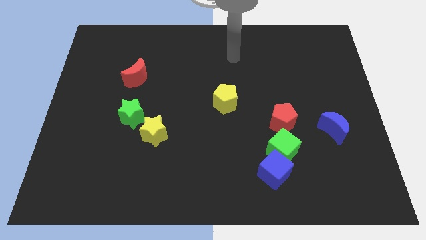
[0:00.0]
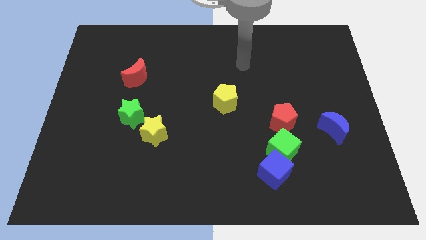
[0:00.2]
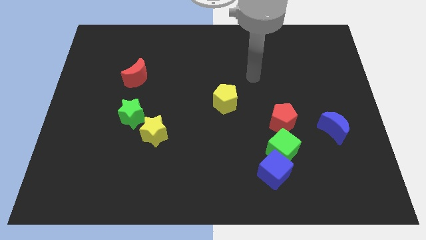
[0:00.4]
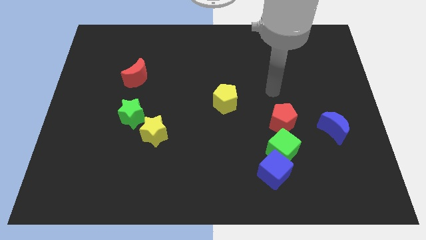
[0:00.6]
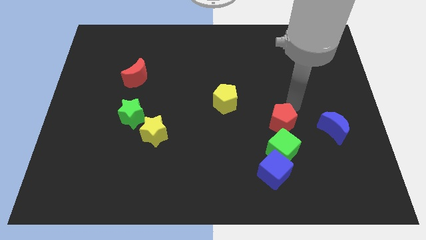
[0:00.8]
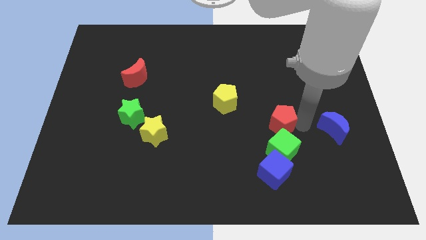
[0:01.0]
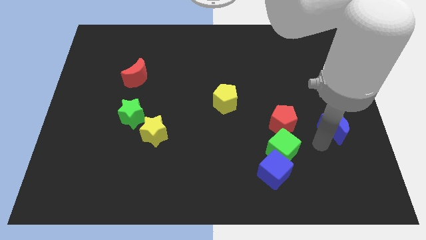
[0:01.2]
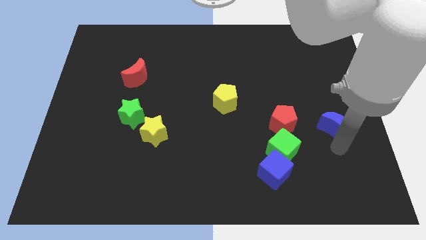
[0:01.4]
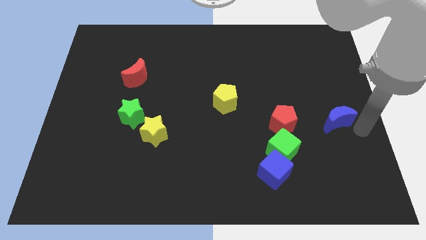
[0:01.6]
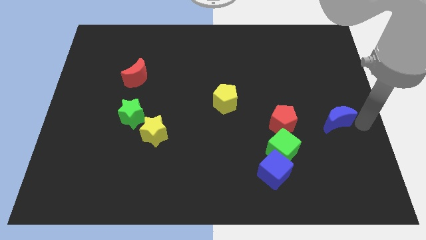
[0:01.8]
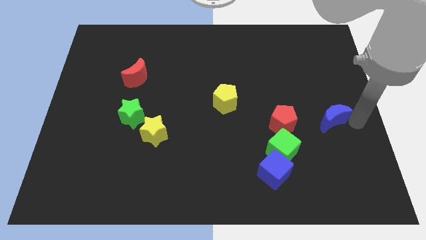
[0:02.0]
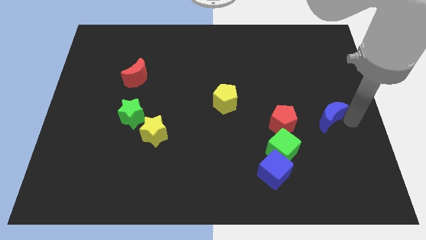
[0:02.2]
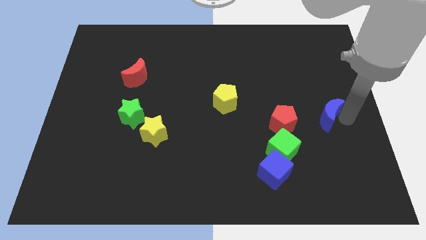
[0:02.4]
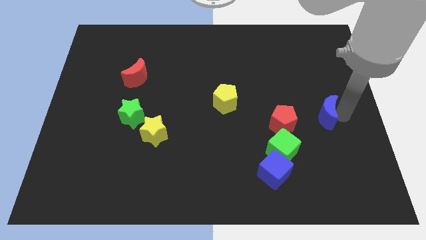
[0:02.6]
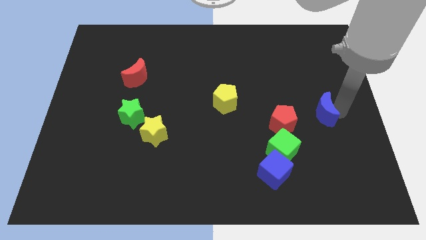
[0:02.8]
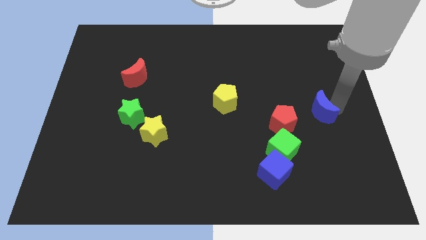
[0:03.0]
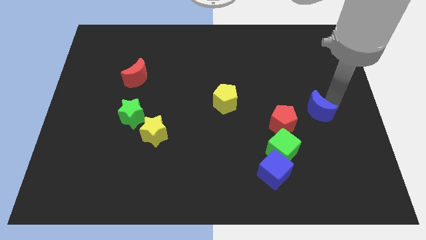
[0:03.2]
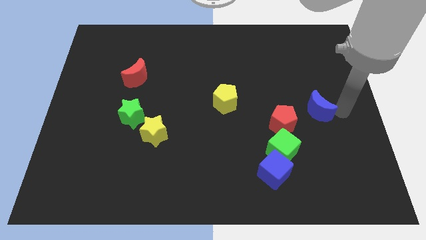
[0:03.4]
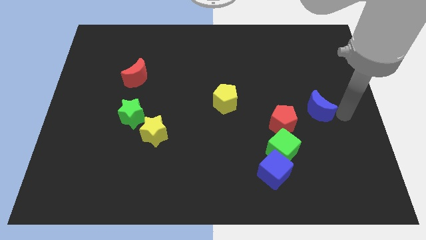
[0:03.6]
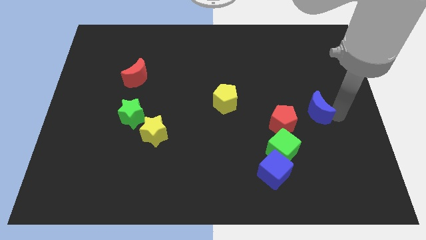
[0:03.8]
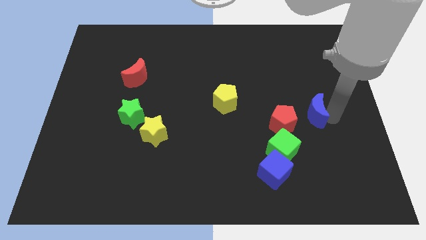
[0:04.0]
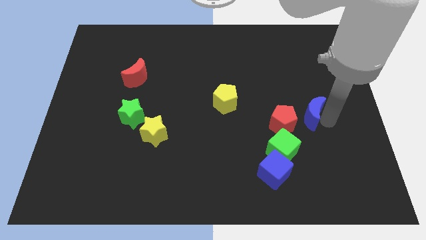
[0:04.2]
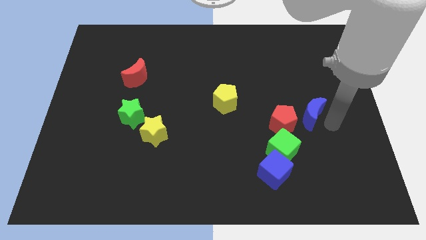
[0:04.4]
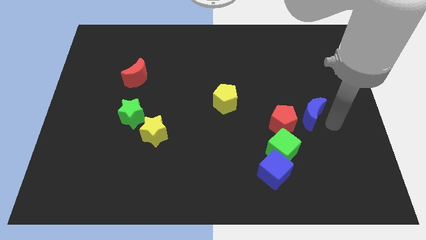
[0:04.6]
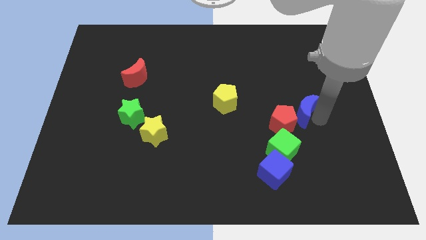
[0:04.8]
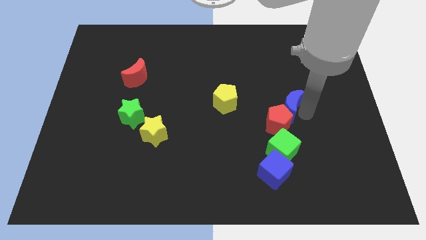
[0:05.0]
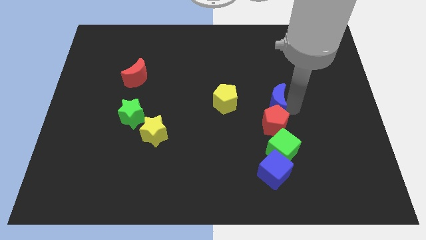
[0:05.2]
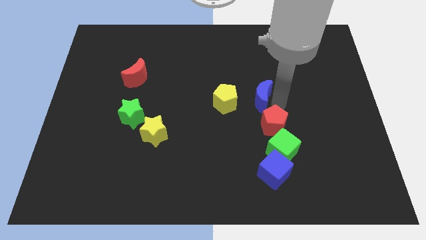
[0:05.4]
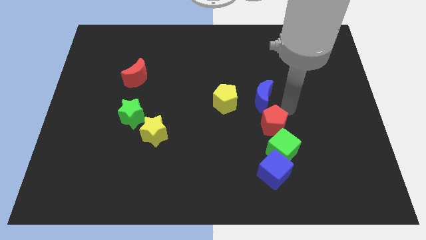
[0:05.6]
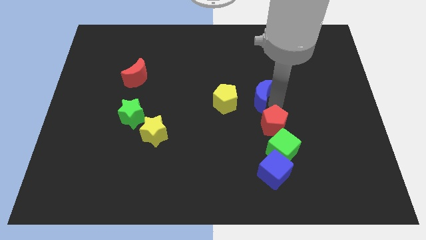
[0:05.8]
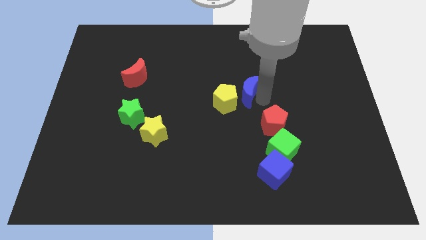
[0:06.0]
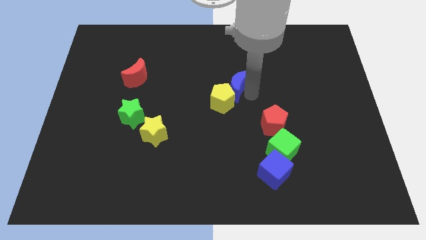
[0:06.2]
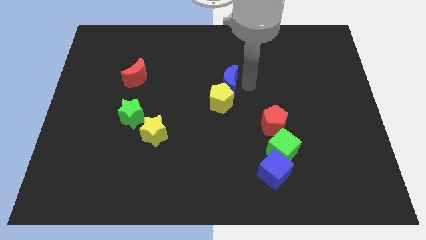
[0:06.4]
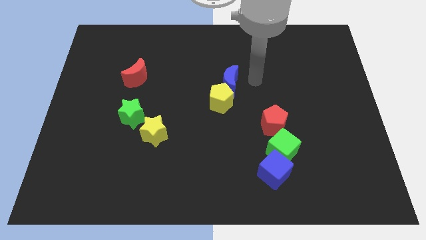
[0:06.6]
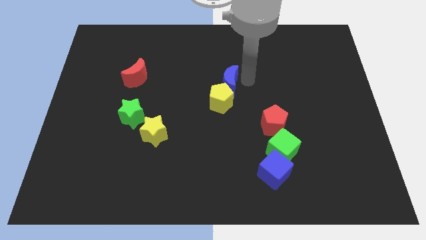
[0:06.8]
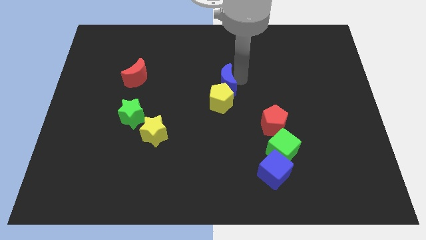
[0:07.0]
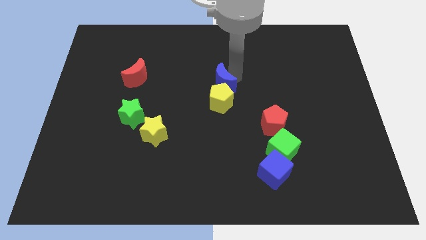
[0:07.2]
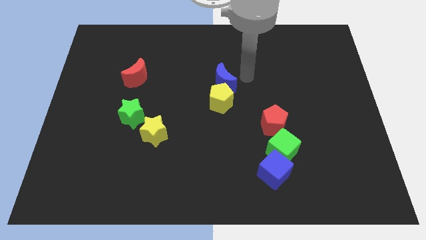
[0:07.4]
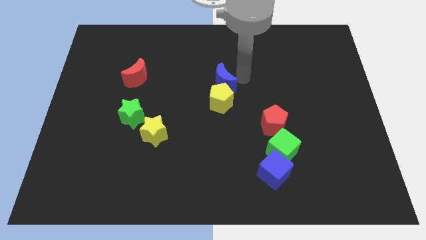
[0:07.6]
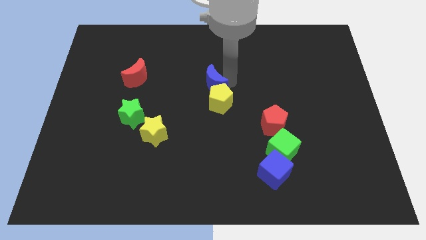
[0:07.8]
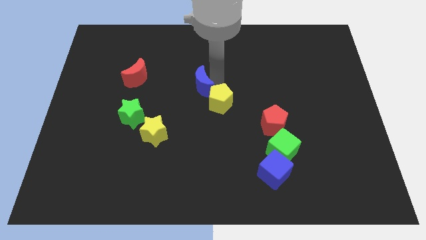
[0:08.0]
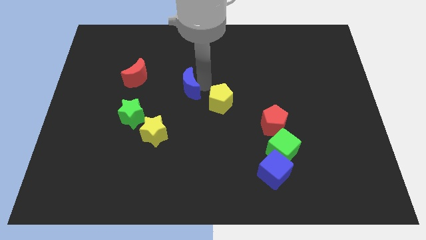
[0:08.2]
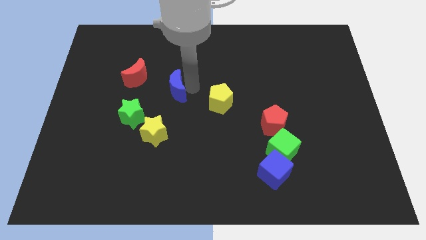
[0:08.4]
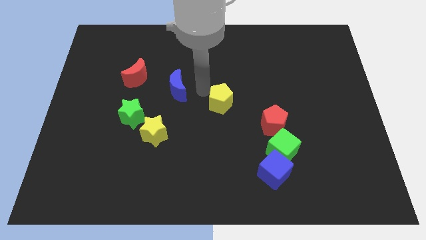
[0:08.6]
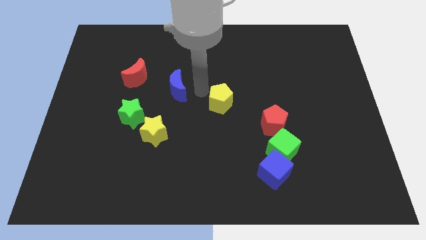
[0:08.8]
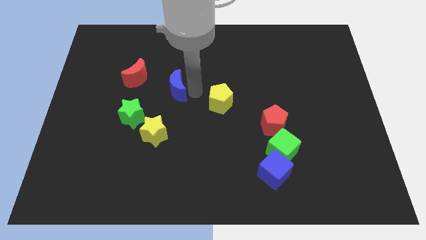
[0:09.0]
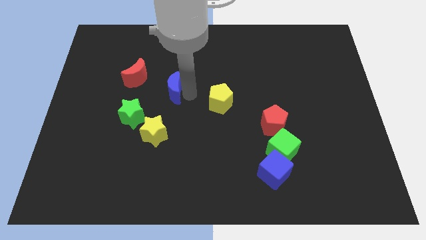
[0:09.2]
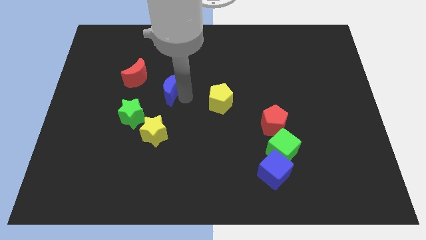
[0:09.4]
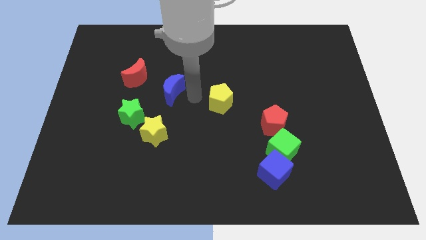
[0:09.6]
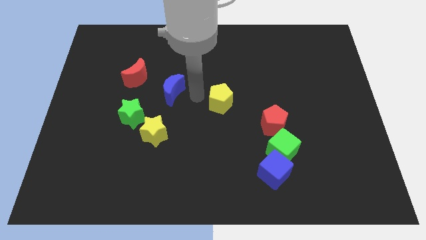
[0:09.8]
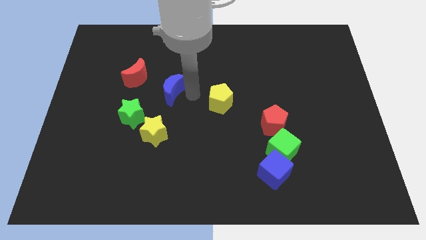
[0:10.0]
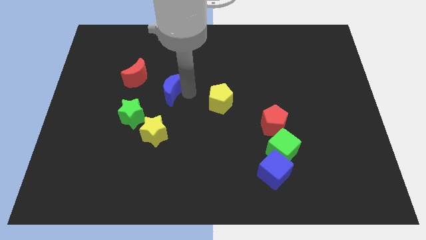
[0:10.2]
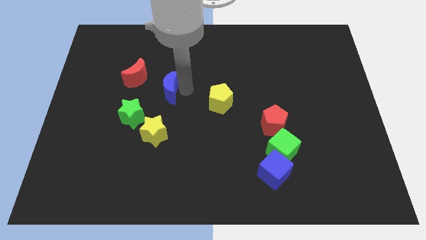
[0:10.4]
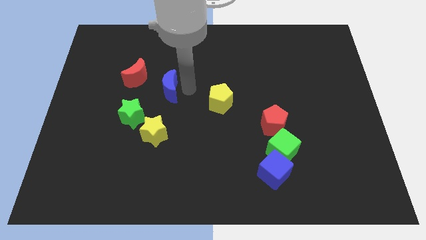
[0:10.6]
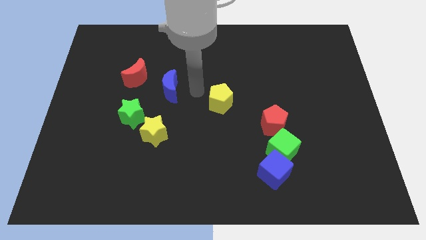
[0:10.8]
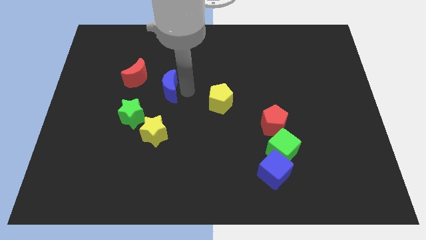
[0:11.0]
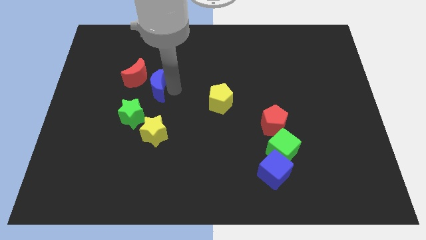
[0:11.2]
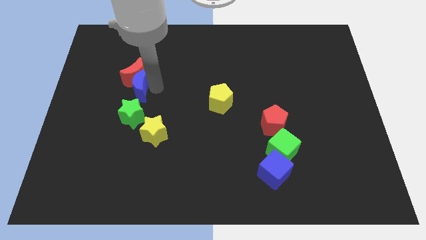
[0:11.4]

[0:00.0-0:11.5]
put the blue moon to the bottom left side of the red moon

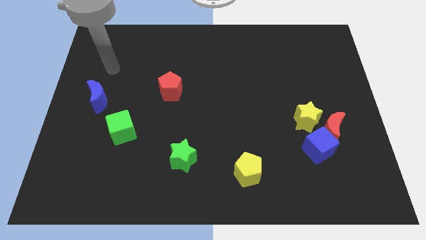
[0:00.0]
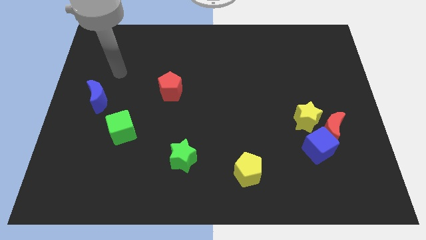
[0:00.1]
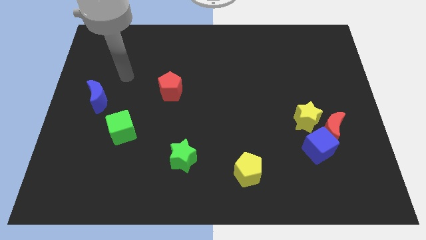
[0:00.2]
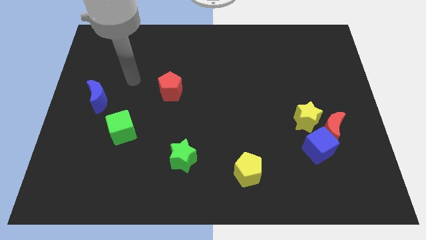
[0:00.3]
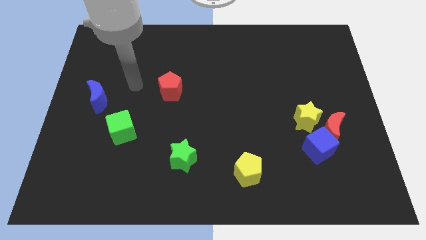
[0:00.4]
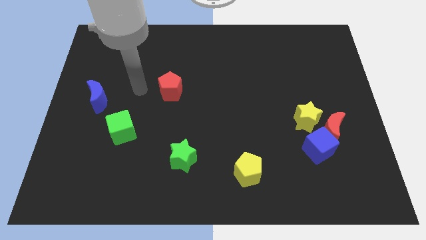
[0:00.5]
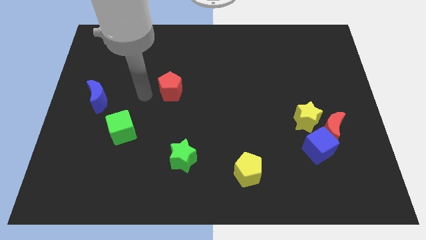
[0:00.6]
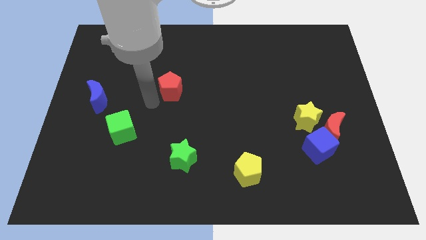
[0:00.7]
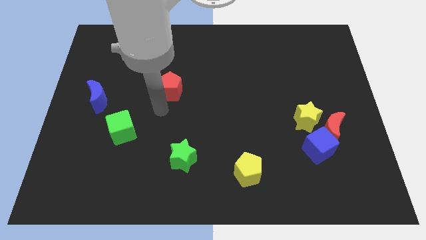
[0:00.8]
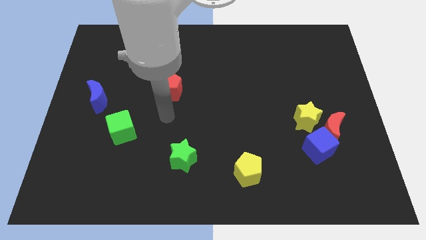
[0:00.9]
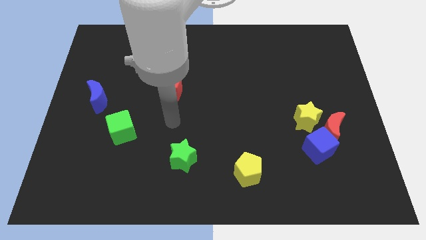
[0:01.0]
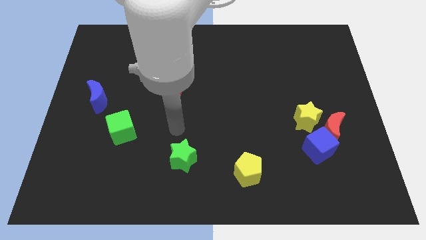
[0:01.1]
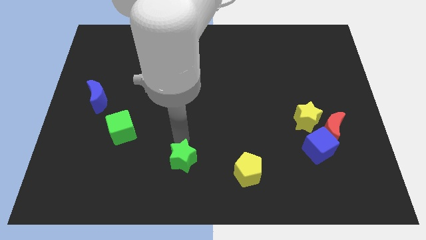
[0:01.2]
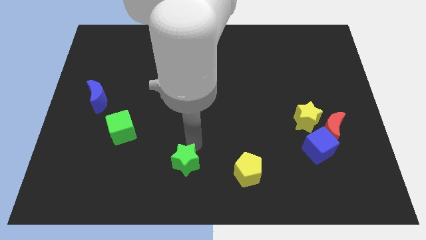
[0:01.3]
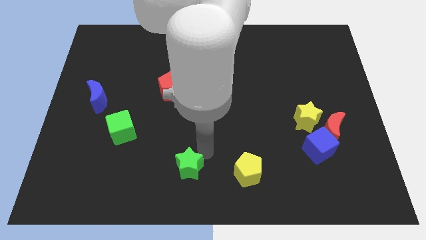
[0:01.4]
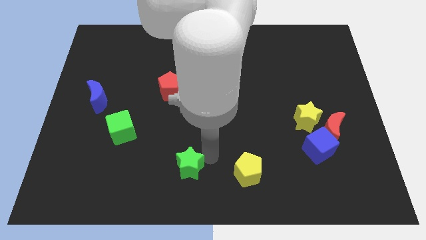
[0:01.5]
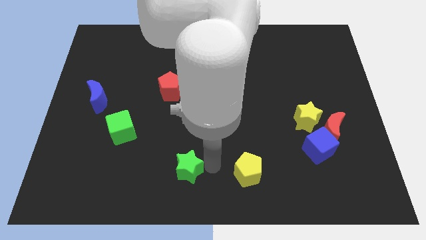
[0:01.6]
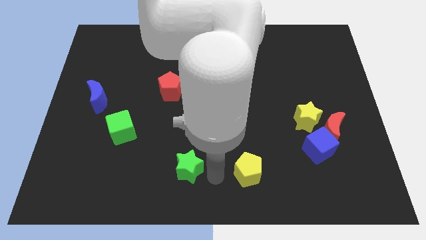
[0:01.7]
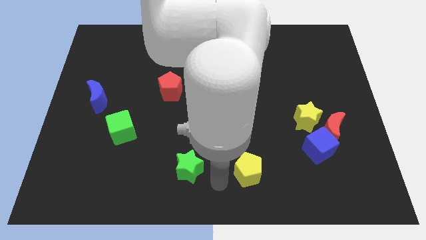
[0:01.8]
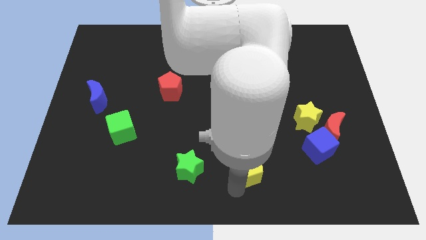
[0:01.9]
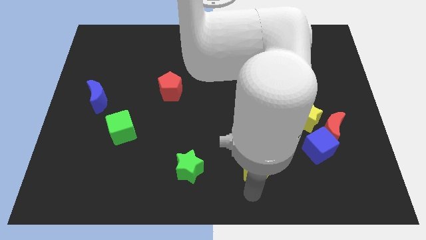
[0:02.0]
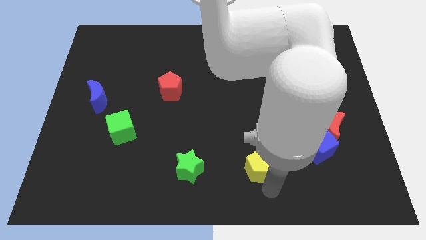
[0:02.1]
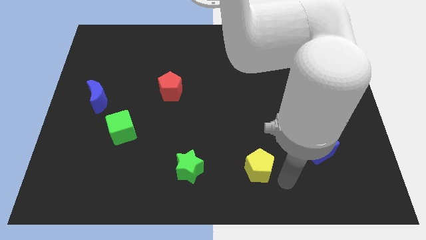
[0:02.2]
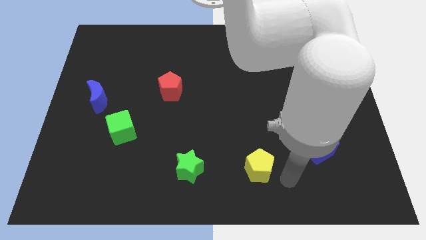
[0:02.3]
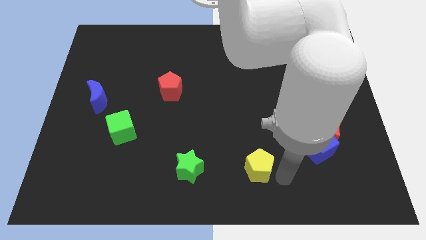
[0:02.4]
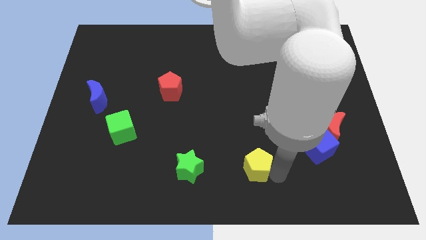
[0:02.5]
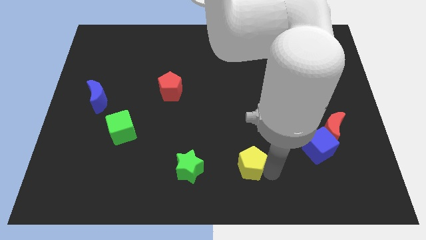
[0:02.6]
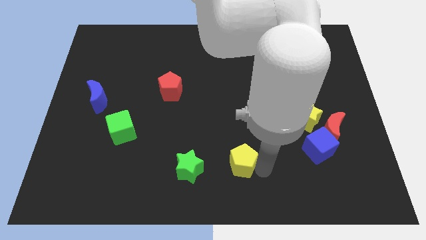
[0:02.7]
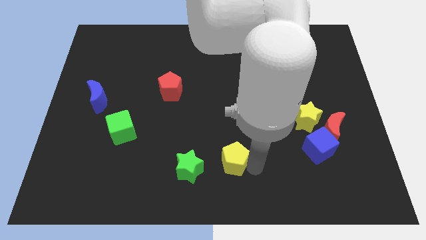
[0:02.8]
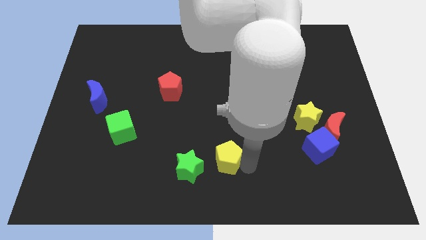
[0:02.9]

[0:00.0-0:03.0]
move the yellow pentagon diagonally up and to the right of the green star
